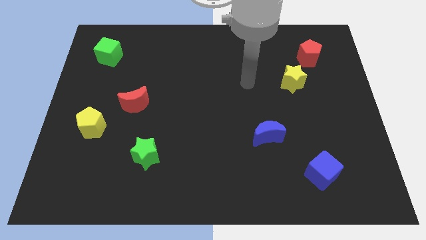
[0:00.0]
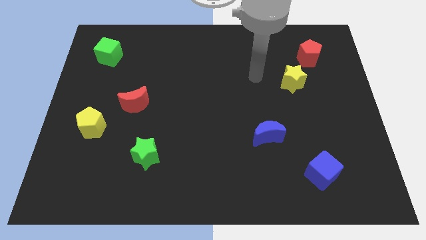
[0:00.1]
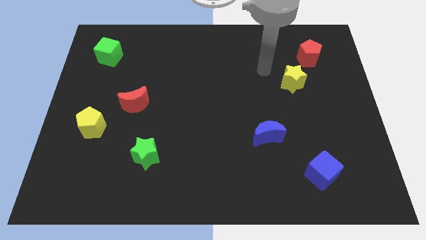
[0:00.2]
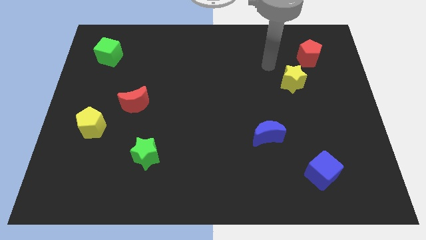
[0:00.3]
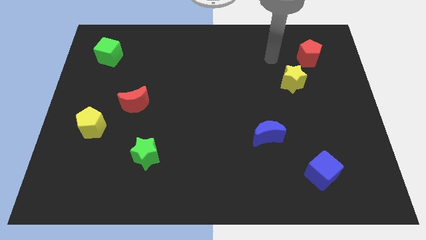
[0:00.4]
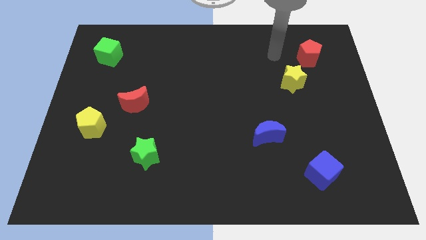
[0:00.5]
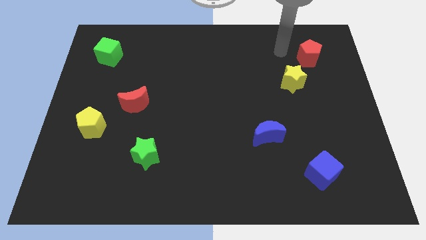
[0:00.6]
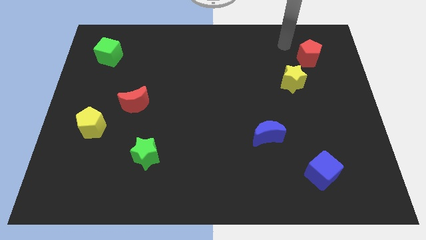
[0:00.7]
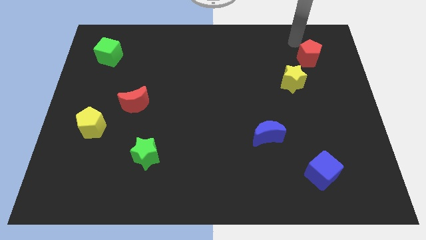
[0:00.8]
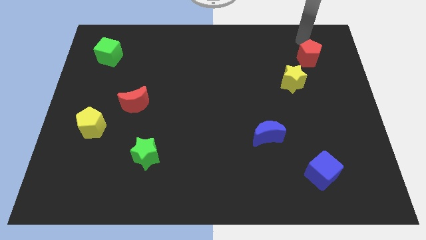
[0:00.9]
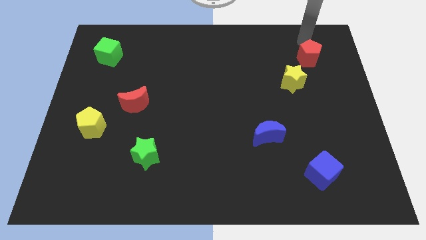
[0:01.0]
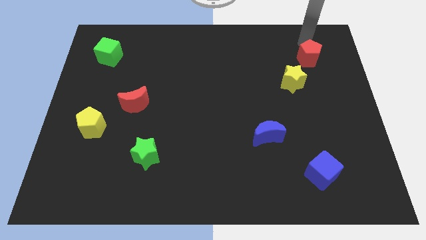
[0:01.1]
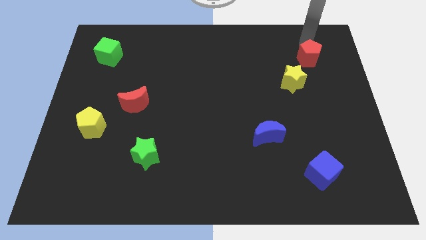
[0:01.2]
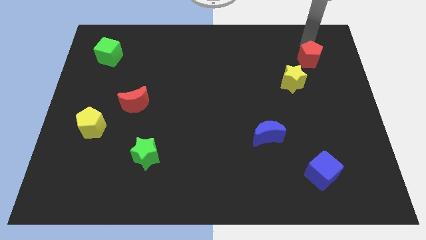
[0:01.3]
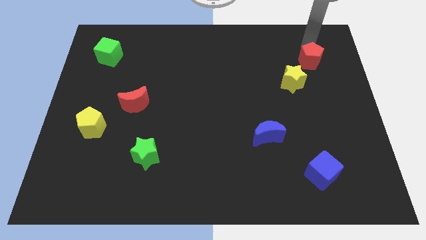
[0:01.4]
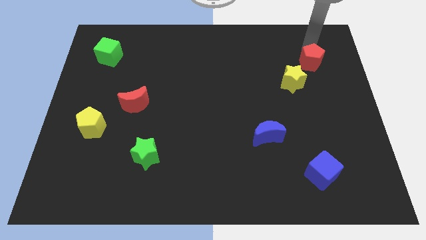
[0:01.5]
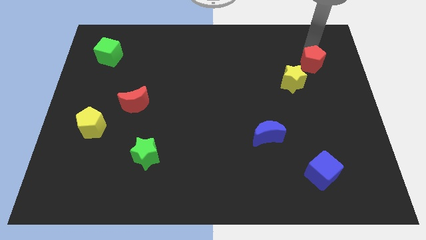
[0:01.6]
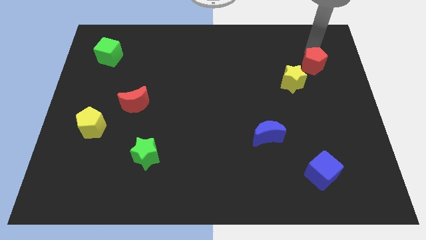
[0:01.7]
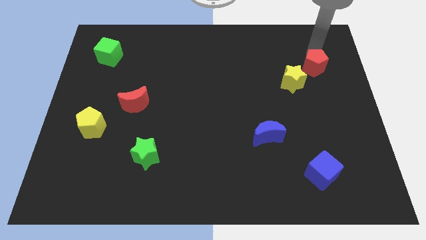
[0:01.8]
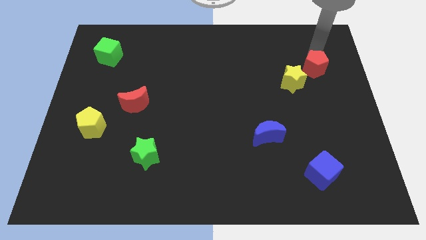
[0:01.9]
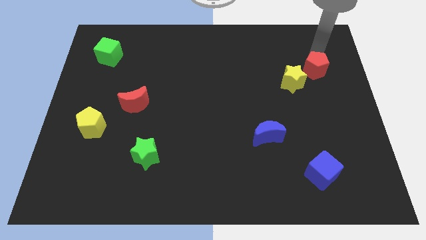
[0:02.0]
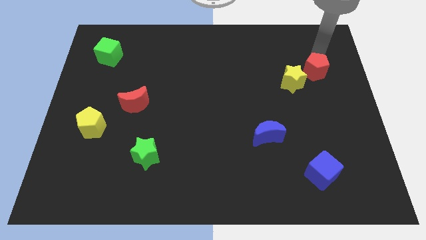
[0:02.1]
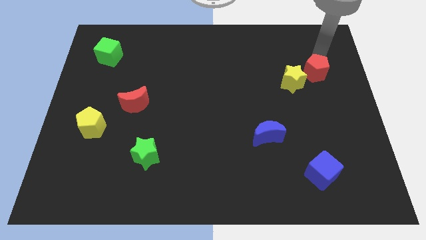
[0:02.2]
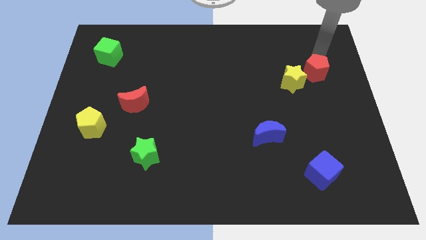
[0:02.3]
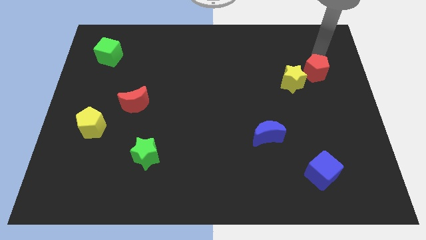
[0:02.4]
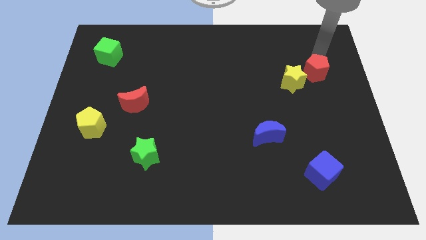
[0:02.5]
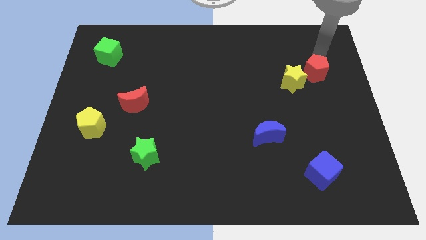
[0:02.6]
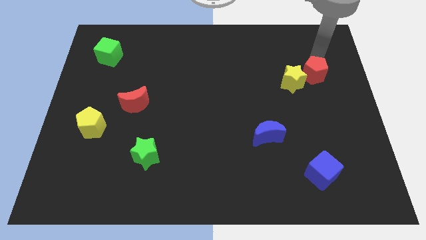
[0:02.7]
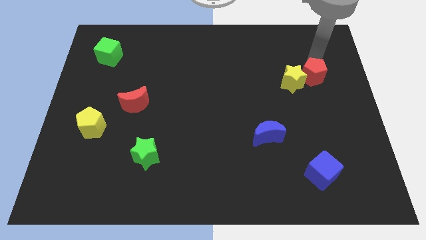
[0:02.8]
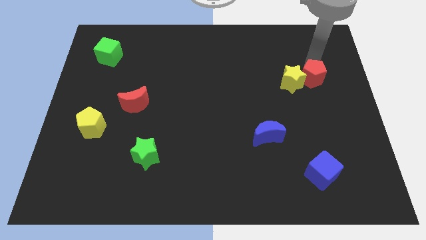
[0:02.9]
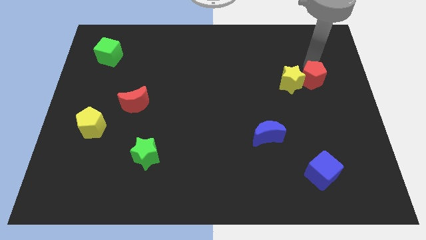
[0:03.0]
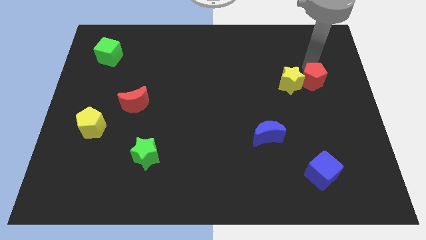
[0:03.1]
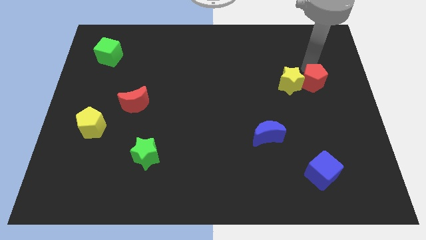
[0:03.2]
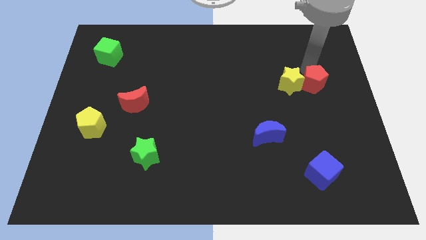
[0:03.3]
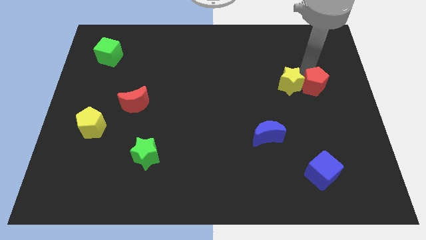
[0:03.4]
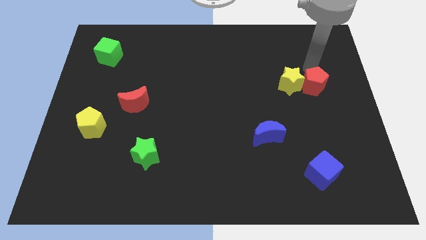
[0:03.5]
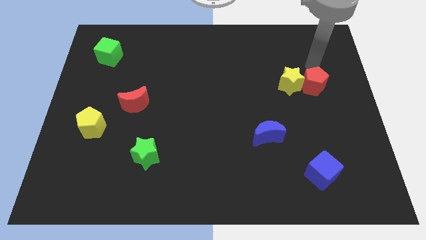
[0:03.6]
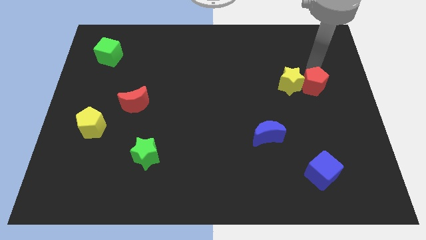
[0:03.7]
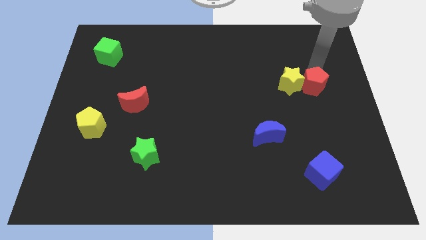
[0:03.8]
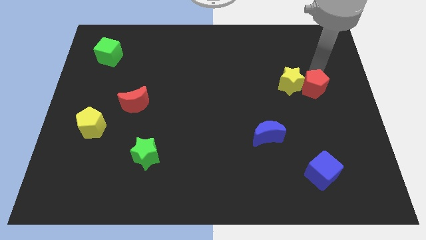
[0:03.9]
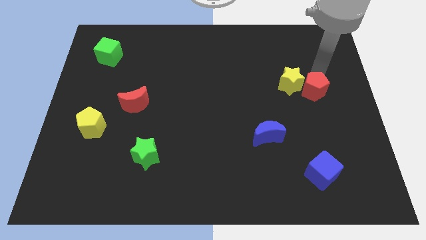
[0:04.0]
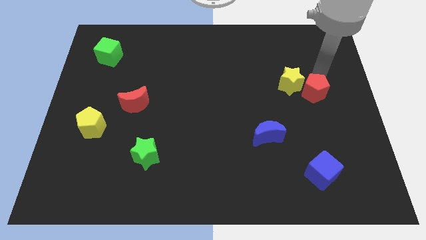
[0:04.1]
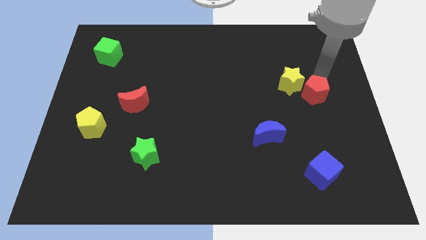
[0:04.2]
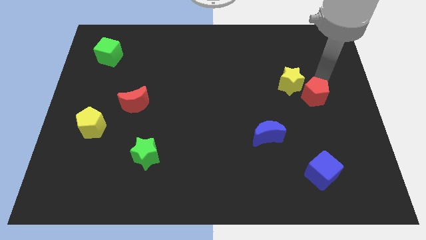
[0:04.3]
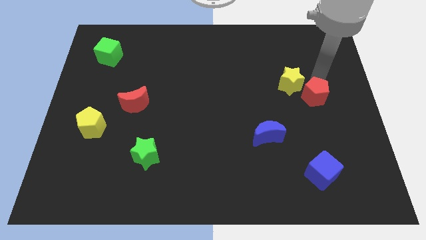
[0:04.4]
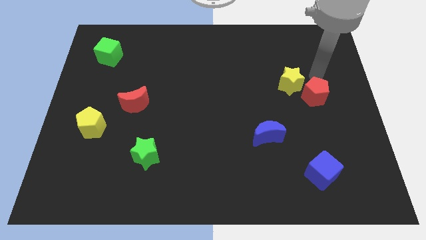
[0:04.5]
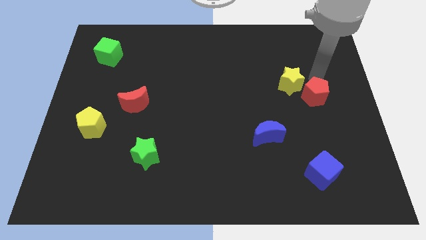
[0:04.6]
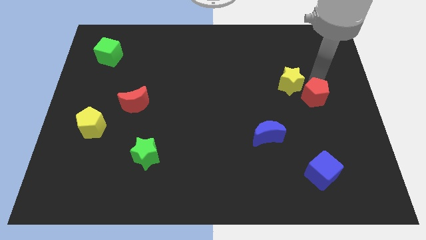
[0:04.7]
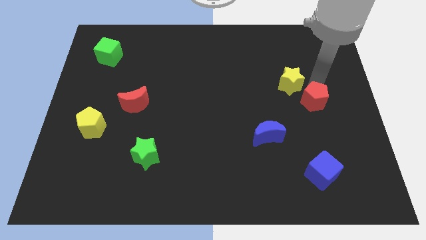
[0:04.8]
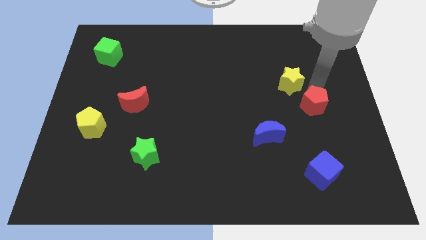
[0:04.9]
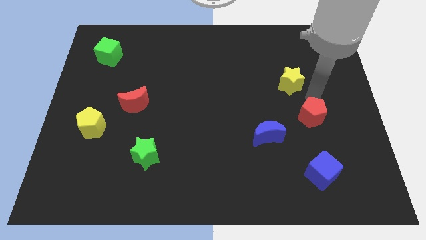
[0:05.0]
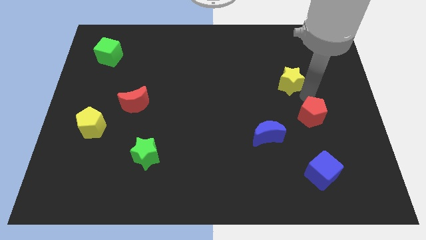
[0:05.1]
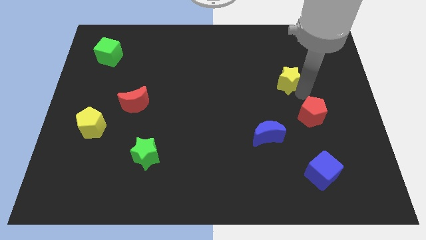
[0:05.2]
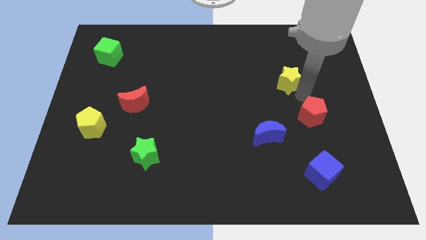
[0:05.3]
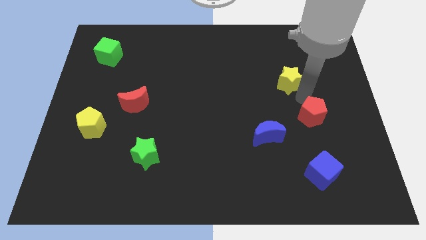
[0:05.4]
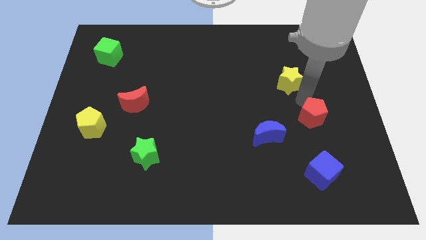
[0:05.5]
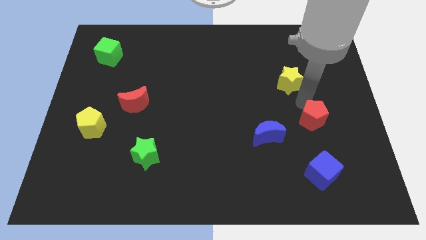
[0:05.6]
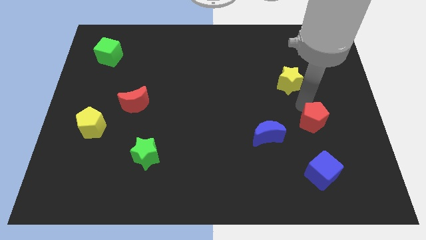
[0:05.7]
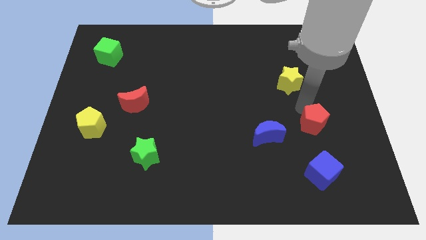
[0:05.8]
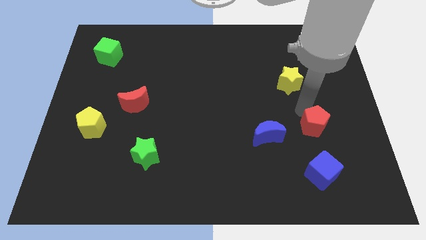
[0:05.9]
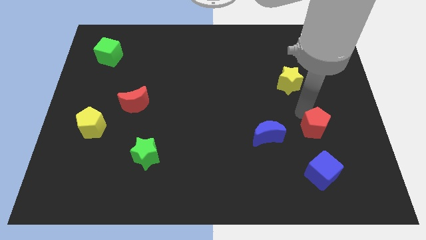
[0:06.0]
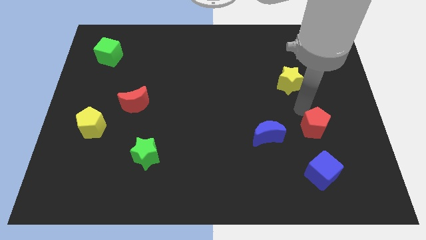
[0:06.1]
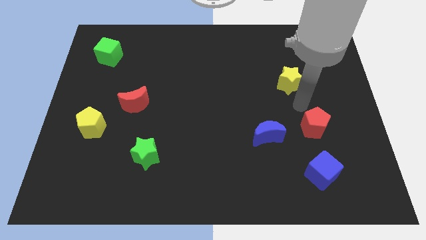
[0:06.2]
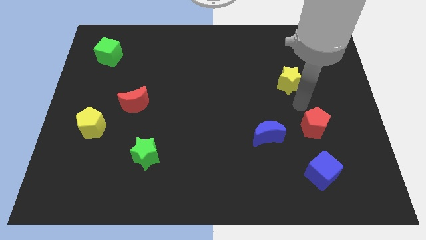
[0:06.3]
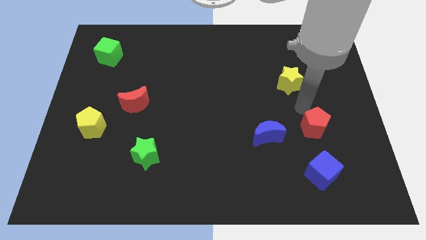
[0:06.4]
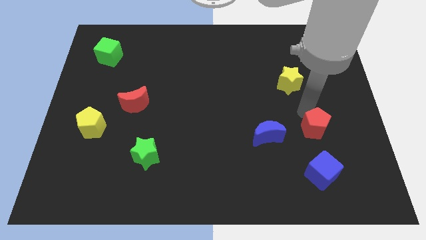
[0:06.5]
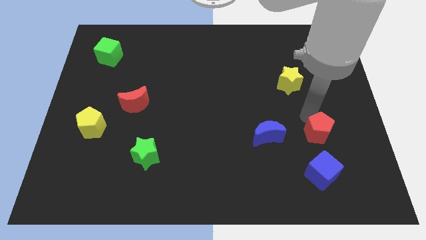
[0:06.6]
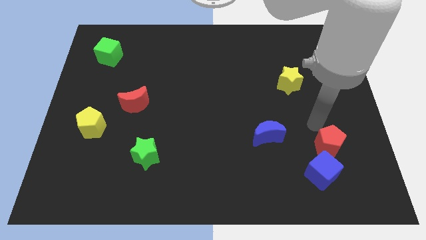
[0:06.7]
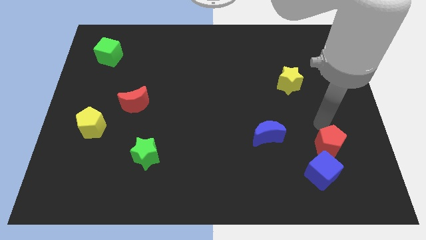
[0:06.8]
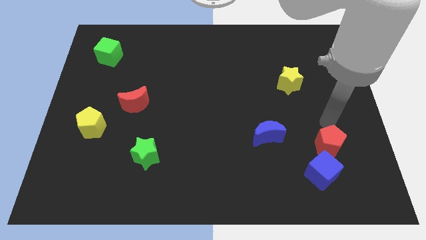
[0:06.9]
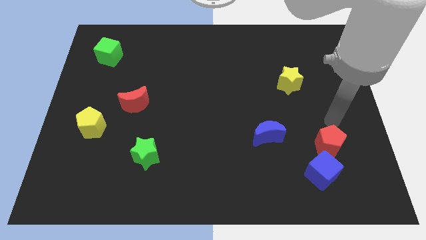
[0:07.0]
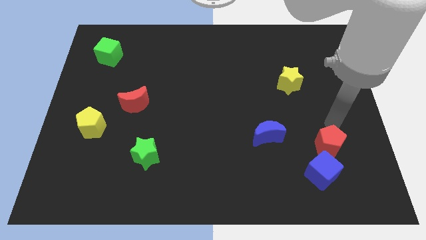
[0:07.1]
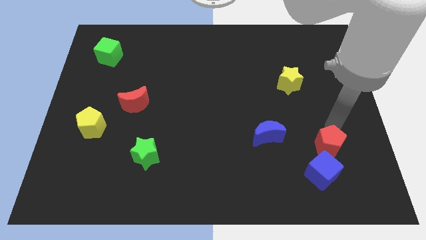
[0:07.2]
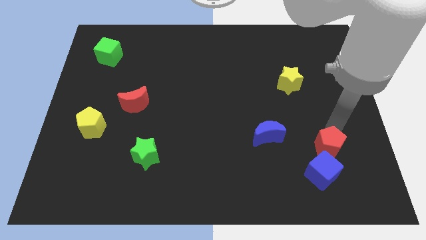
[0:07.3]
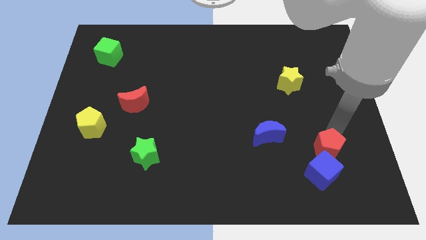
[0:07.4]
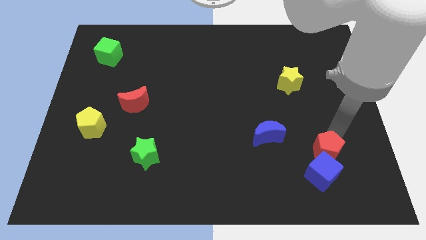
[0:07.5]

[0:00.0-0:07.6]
push the red pentagon towards the blue cube
